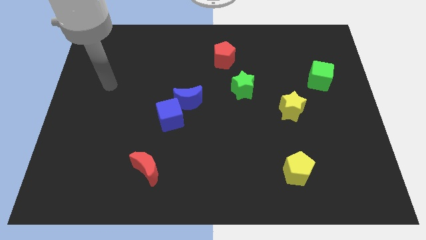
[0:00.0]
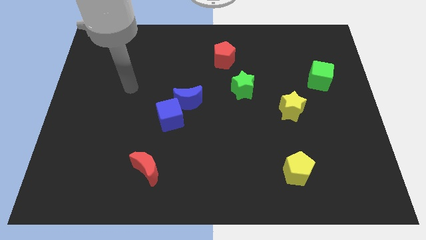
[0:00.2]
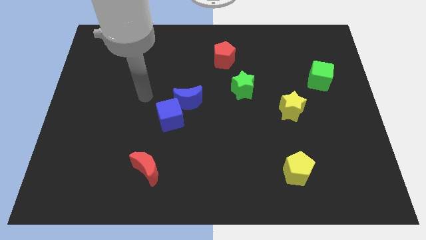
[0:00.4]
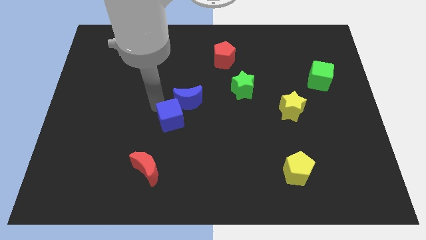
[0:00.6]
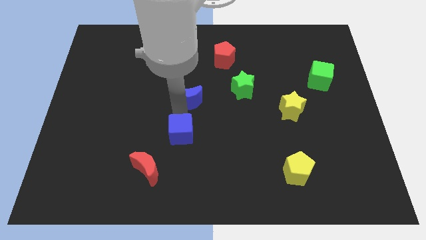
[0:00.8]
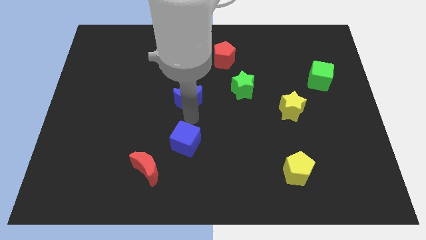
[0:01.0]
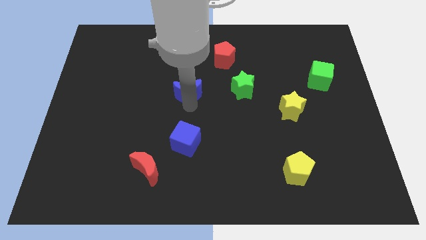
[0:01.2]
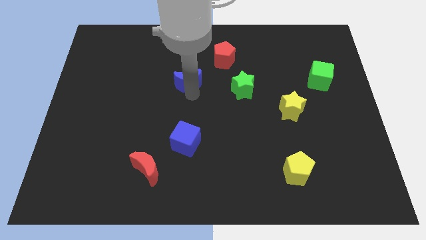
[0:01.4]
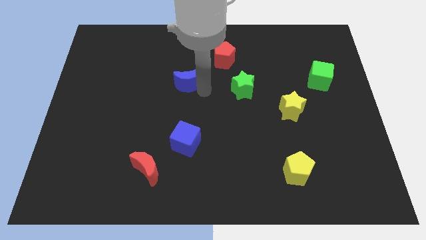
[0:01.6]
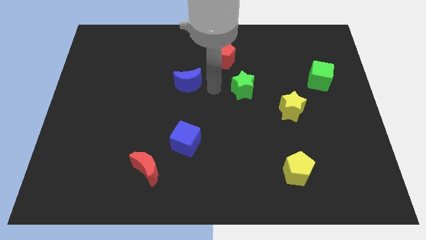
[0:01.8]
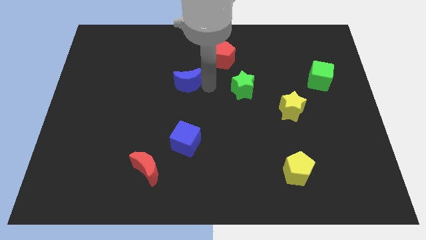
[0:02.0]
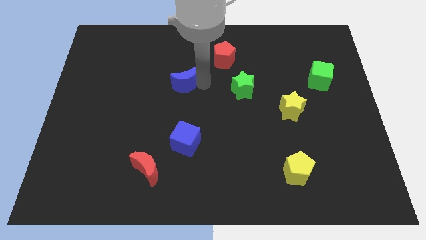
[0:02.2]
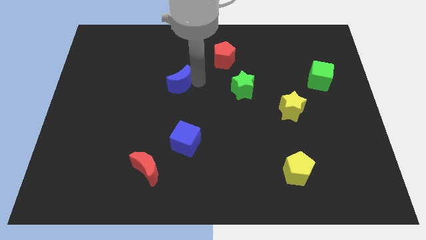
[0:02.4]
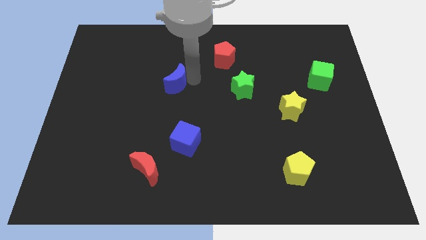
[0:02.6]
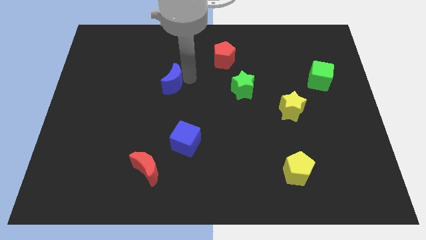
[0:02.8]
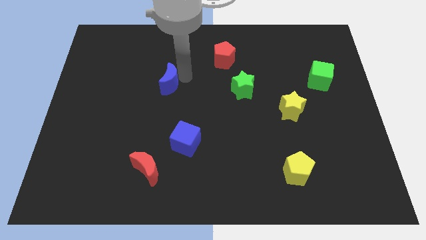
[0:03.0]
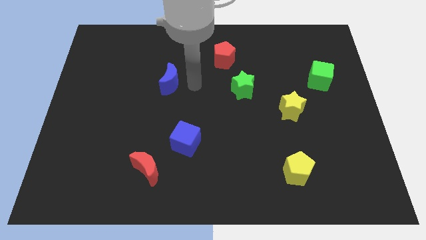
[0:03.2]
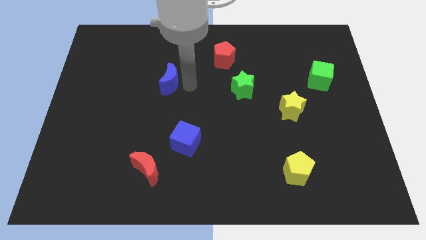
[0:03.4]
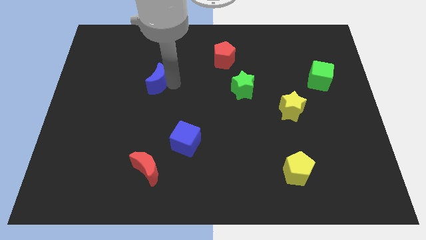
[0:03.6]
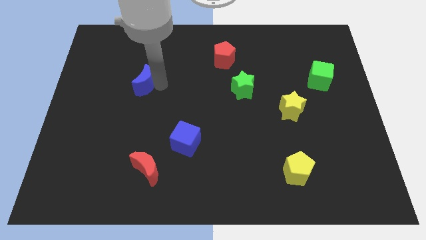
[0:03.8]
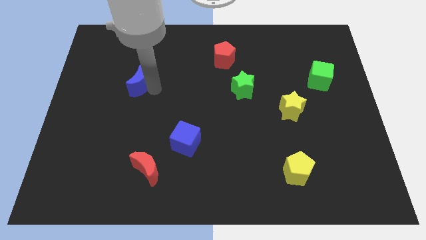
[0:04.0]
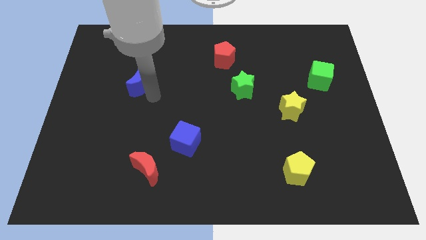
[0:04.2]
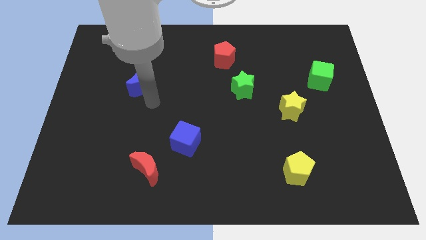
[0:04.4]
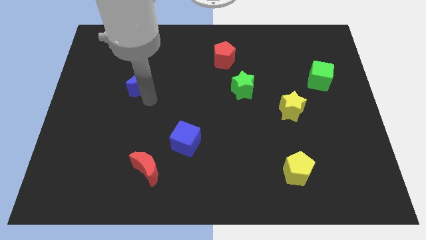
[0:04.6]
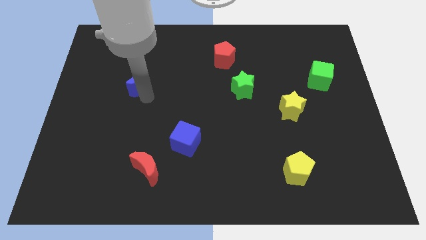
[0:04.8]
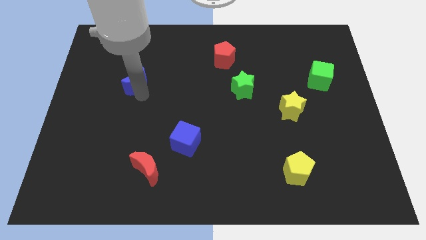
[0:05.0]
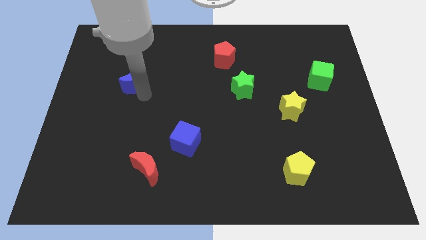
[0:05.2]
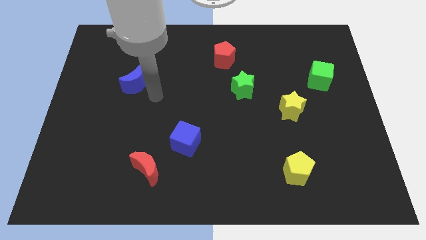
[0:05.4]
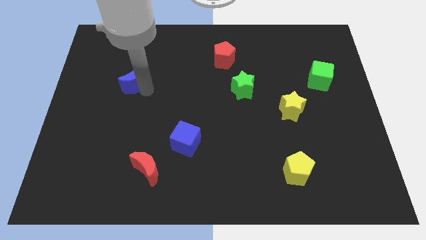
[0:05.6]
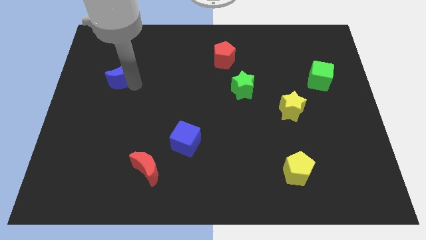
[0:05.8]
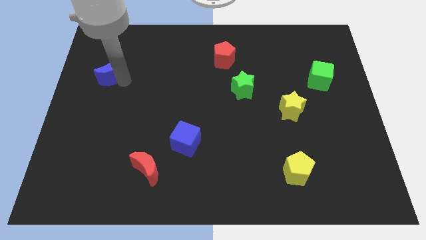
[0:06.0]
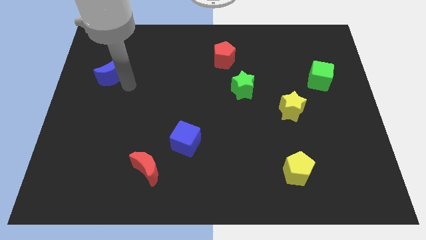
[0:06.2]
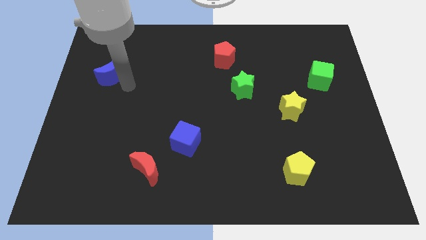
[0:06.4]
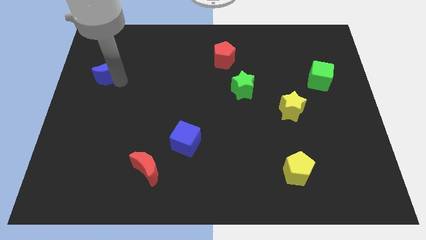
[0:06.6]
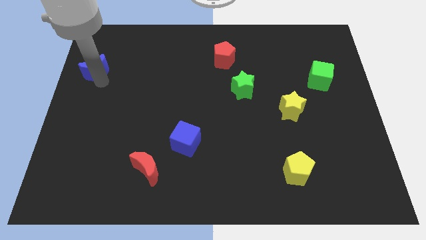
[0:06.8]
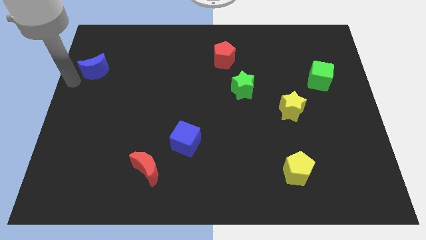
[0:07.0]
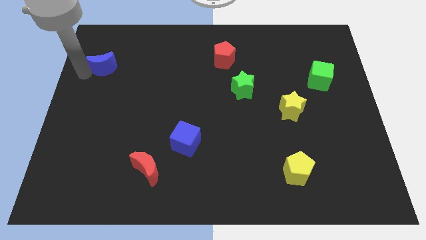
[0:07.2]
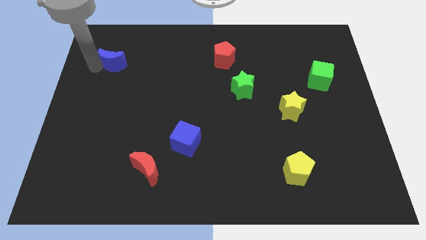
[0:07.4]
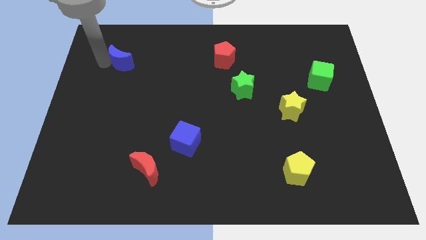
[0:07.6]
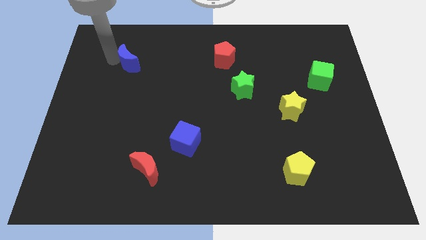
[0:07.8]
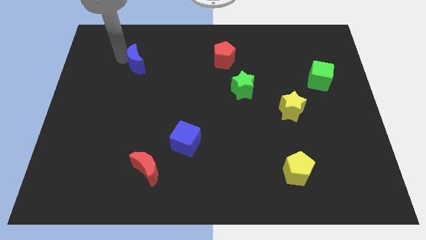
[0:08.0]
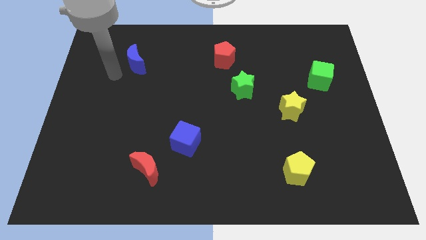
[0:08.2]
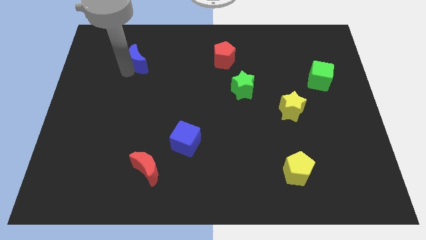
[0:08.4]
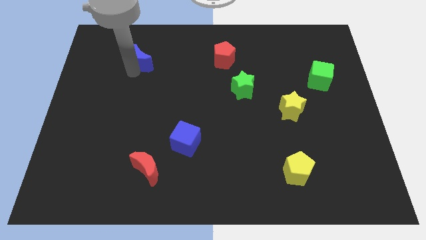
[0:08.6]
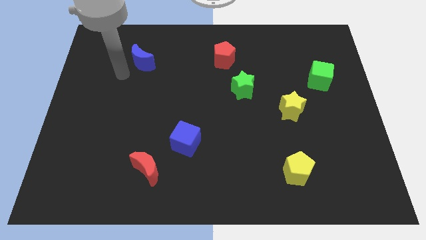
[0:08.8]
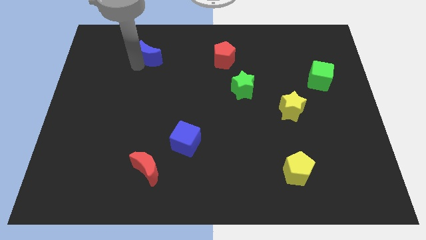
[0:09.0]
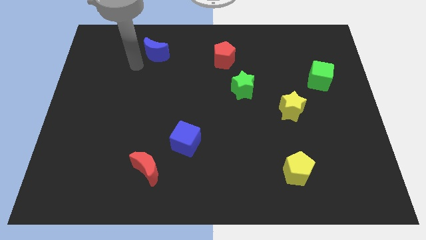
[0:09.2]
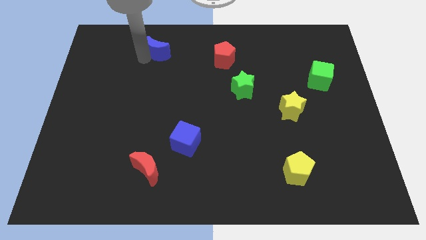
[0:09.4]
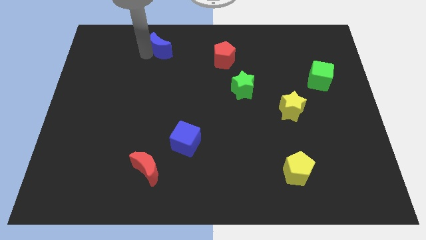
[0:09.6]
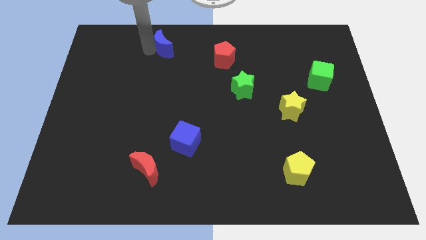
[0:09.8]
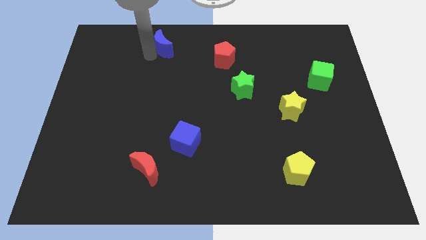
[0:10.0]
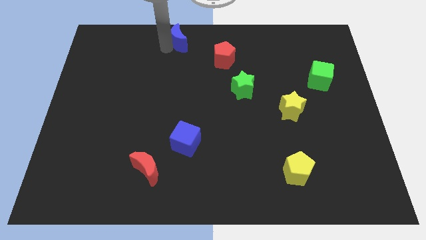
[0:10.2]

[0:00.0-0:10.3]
slide the blue moon to the towards your base

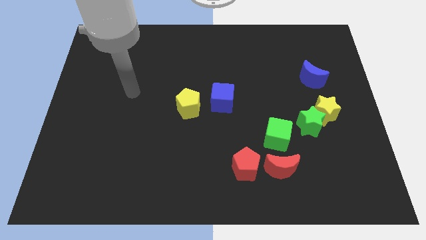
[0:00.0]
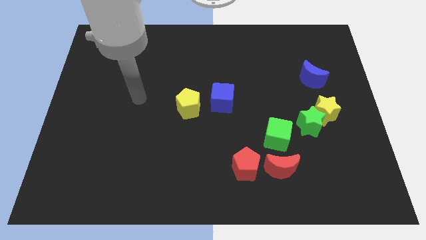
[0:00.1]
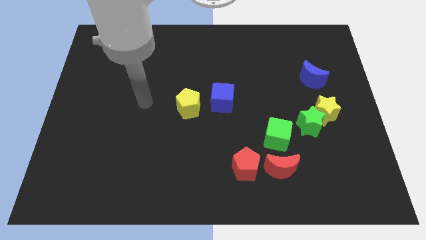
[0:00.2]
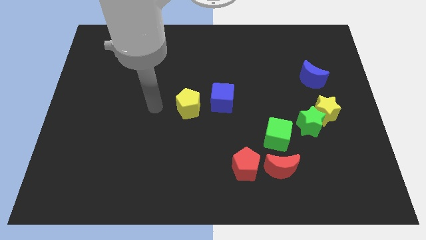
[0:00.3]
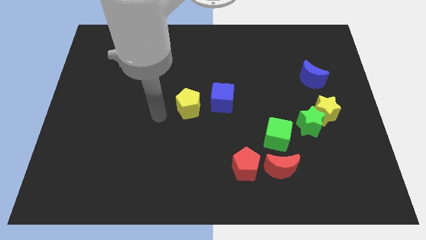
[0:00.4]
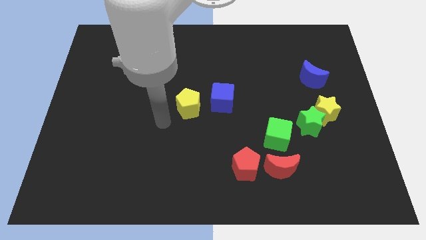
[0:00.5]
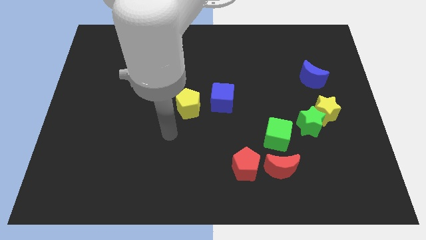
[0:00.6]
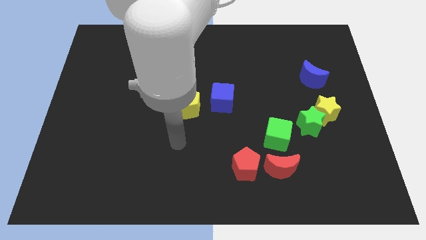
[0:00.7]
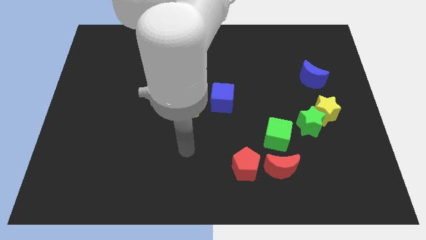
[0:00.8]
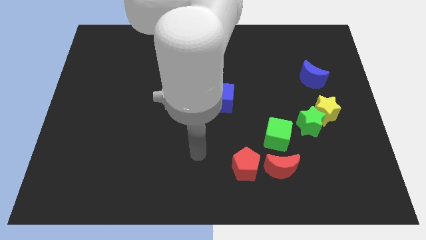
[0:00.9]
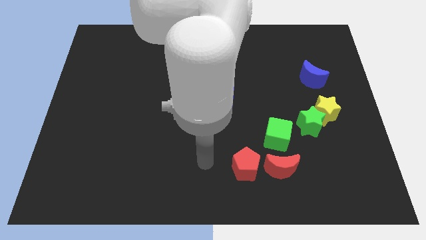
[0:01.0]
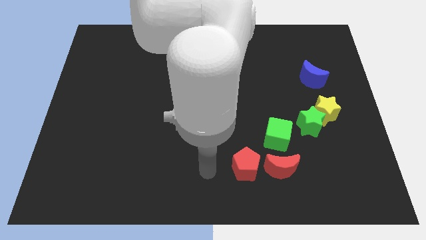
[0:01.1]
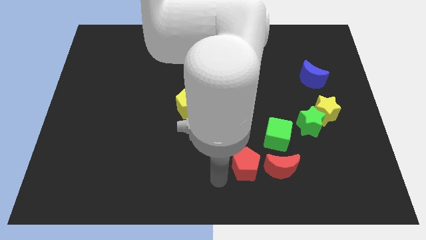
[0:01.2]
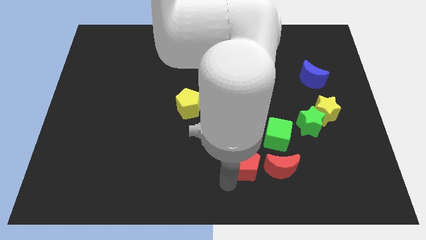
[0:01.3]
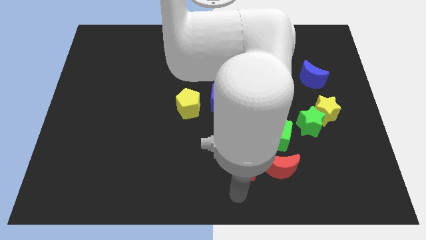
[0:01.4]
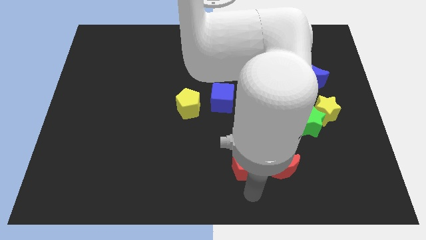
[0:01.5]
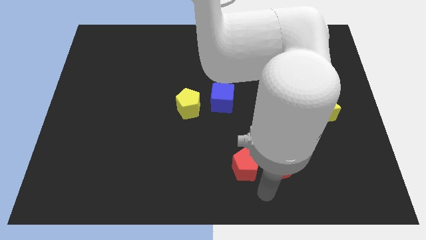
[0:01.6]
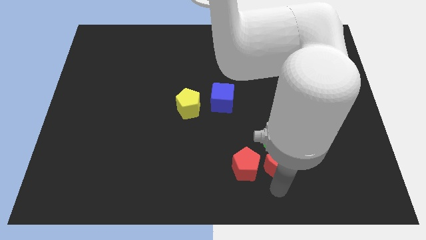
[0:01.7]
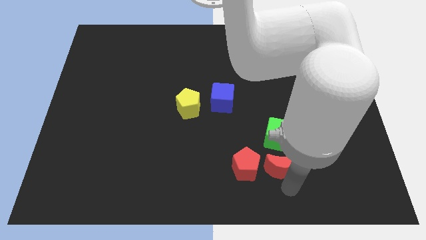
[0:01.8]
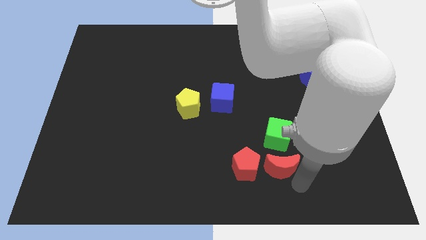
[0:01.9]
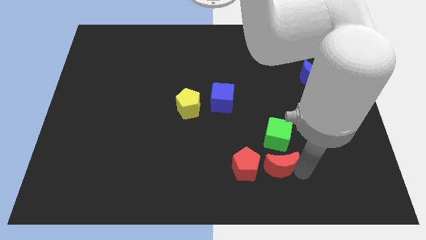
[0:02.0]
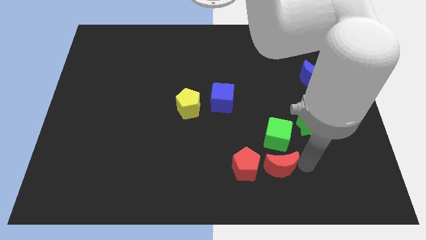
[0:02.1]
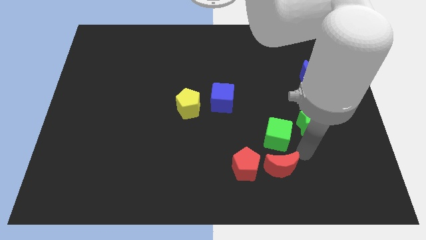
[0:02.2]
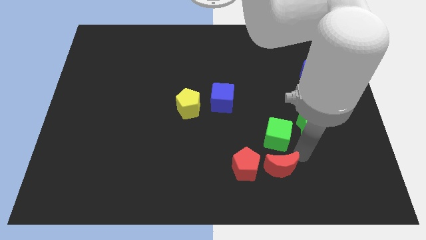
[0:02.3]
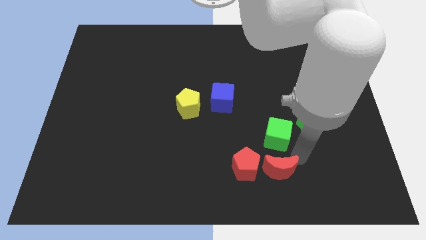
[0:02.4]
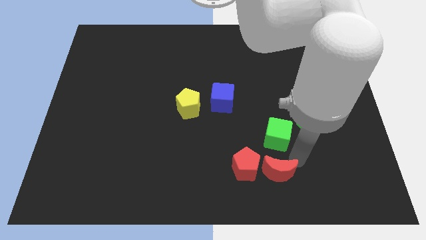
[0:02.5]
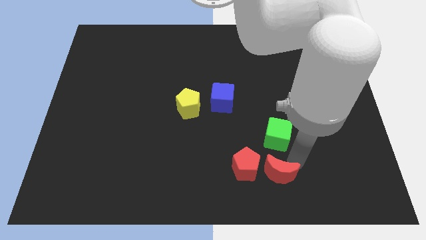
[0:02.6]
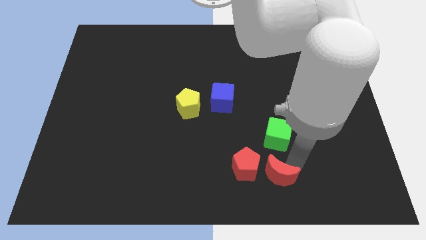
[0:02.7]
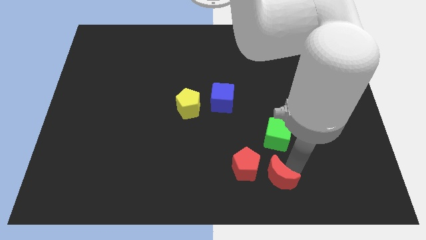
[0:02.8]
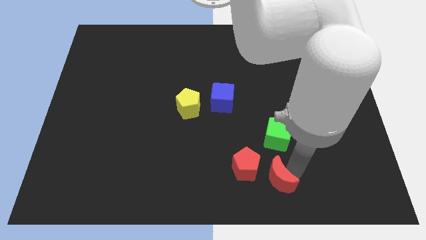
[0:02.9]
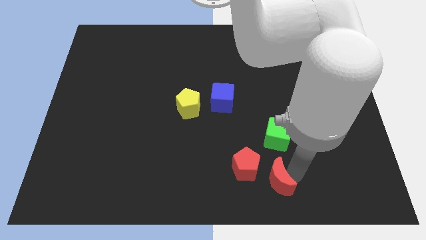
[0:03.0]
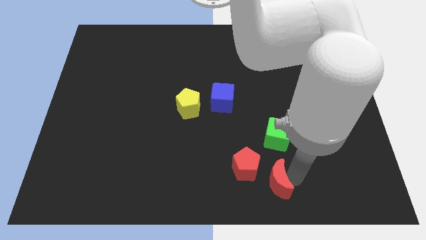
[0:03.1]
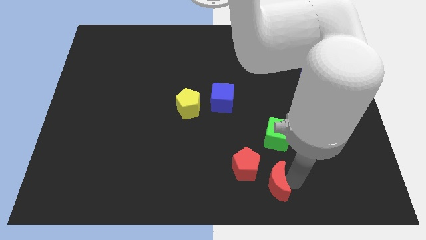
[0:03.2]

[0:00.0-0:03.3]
put the red moon to the bottom side
